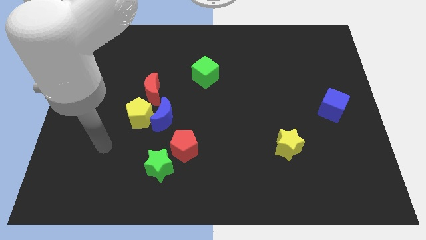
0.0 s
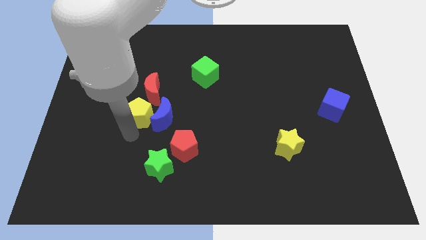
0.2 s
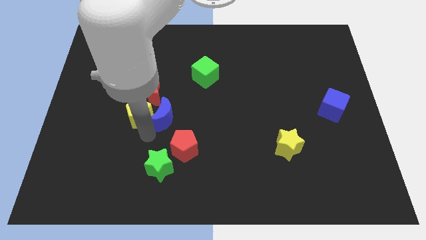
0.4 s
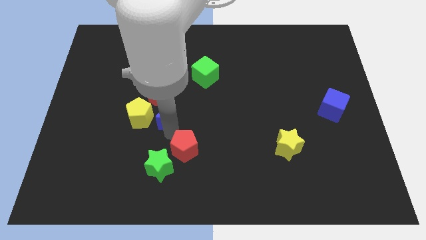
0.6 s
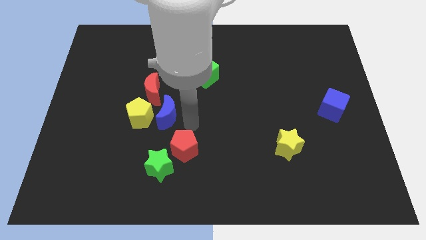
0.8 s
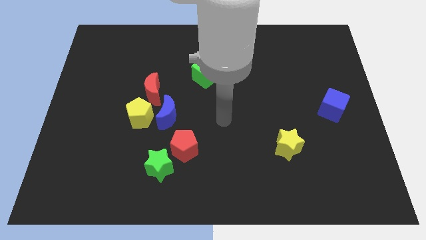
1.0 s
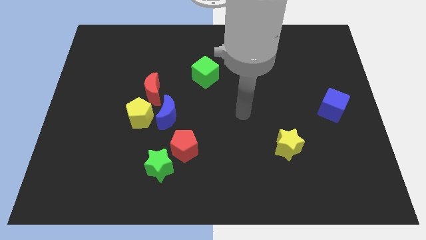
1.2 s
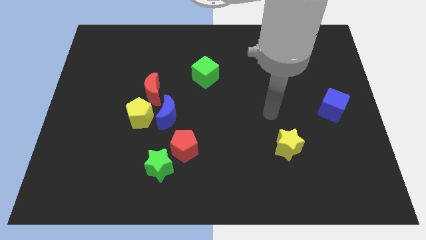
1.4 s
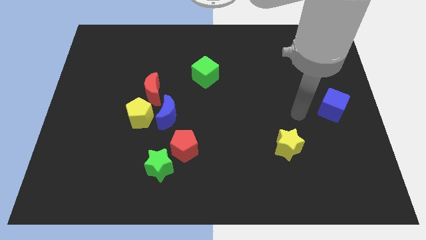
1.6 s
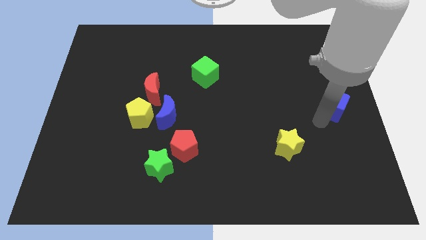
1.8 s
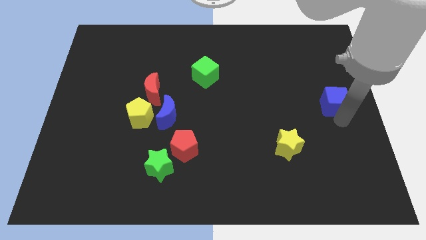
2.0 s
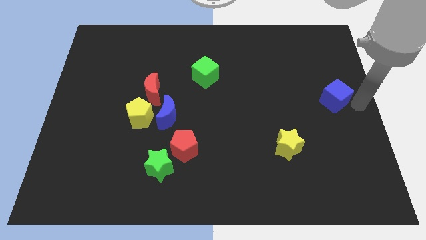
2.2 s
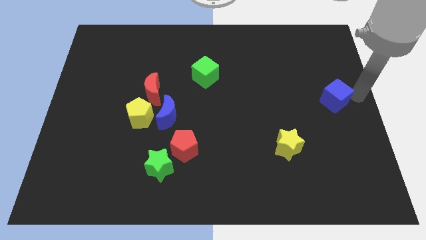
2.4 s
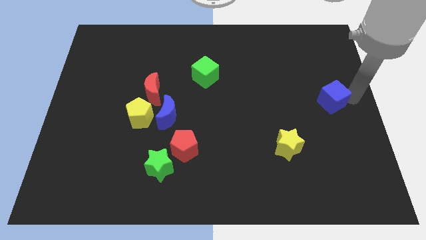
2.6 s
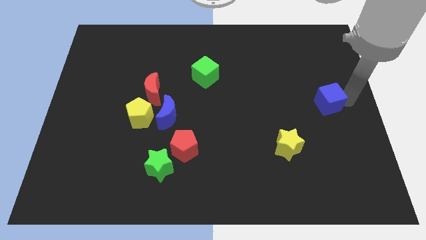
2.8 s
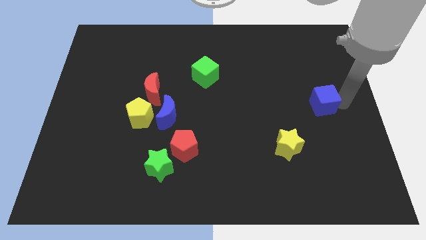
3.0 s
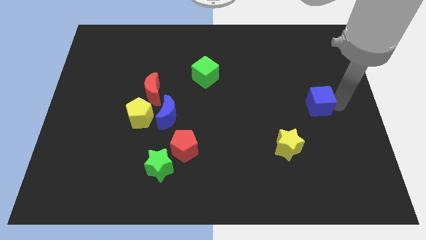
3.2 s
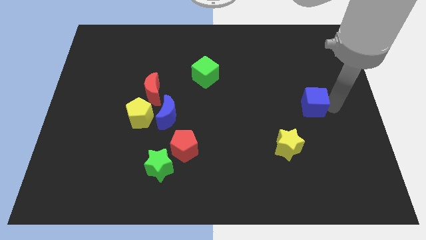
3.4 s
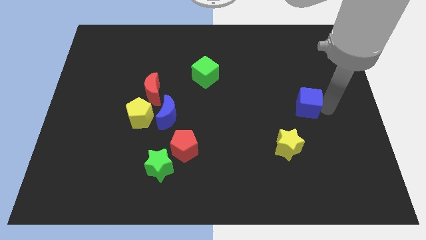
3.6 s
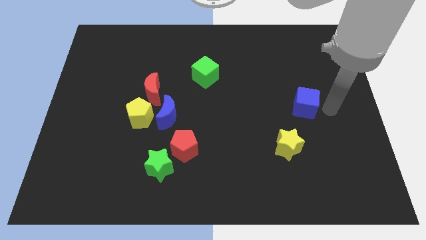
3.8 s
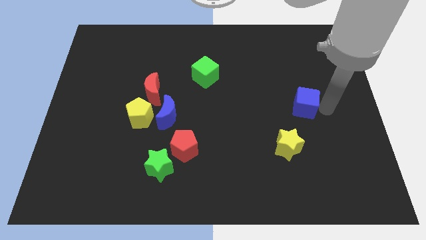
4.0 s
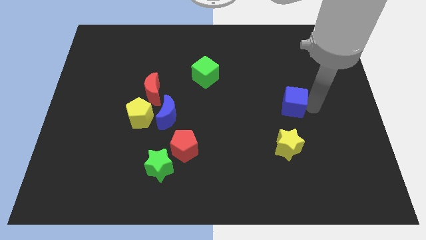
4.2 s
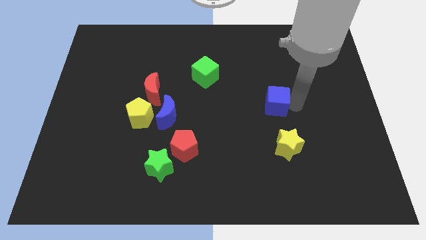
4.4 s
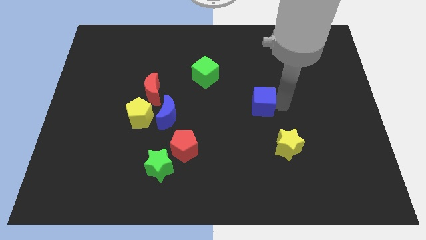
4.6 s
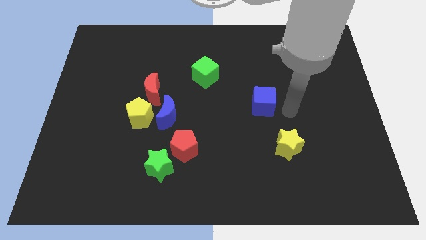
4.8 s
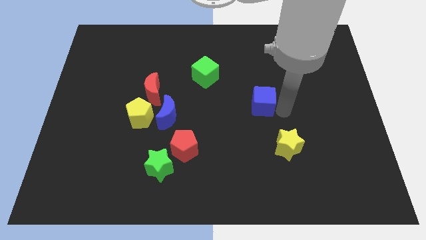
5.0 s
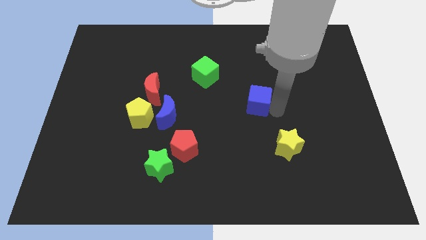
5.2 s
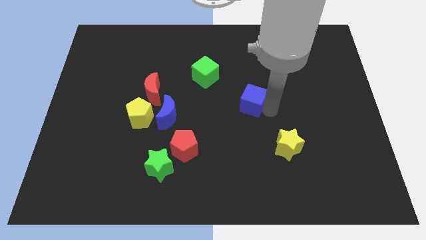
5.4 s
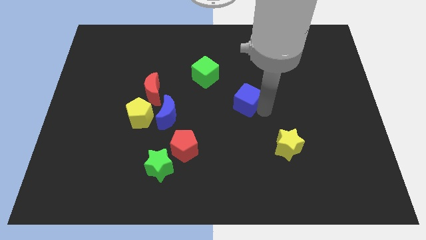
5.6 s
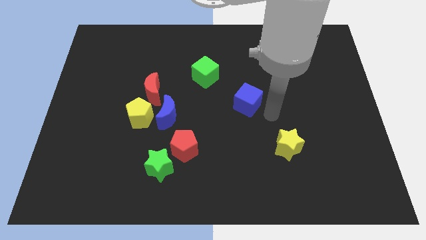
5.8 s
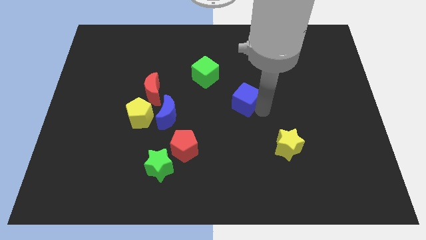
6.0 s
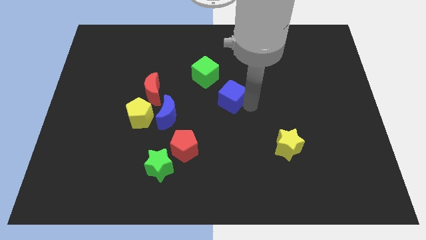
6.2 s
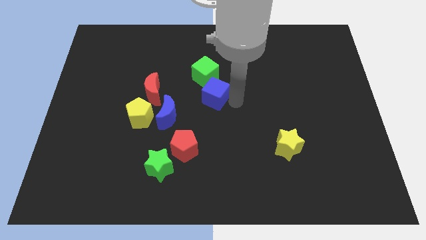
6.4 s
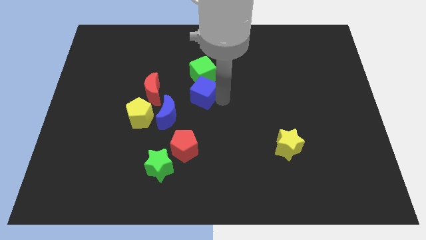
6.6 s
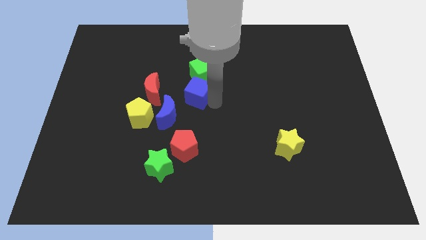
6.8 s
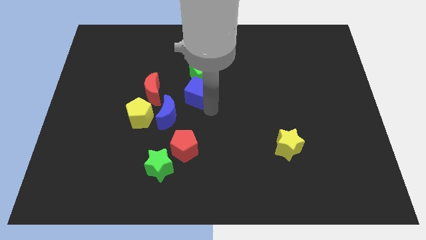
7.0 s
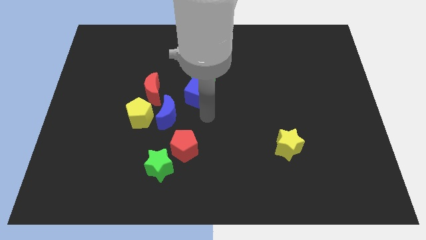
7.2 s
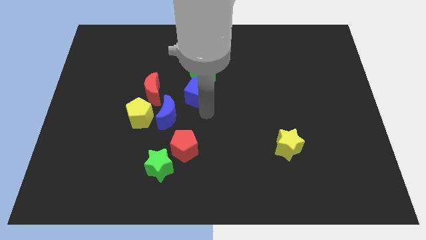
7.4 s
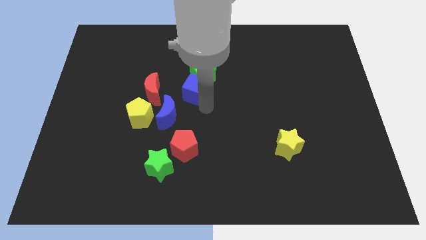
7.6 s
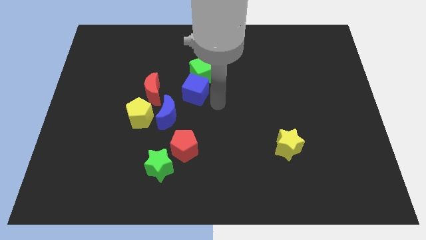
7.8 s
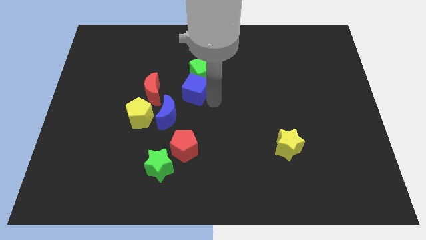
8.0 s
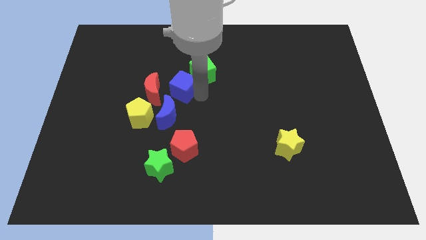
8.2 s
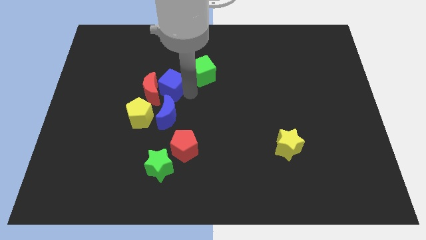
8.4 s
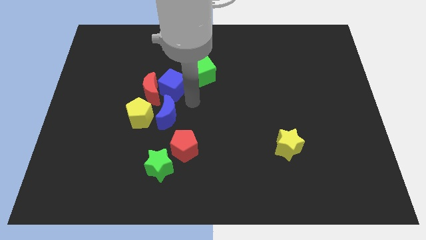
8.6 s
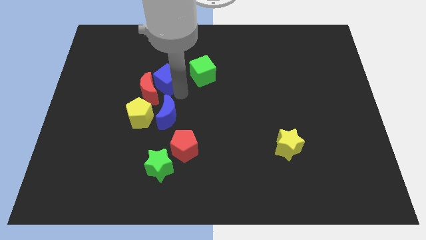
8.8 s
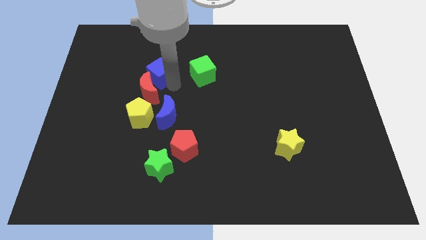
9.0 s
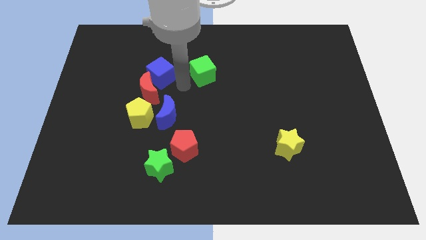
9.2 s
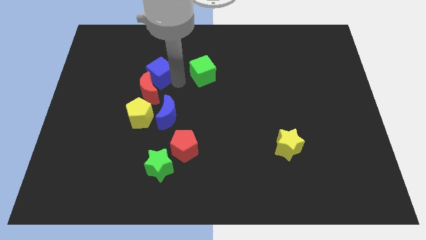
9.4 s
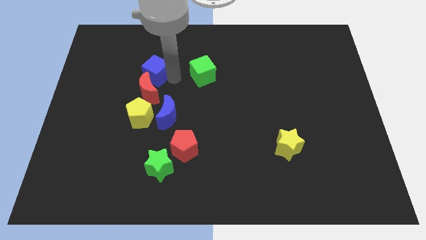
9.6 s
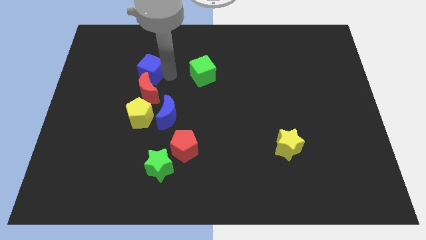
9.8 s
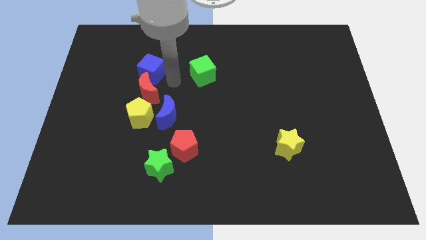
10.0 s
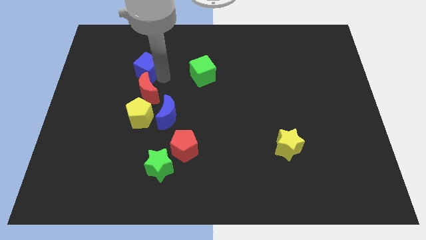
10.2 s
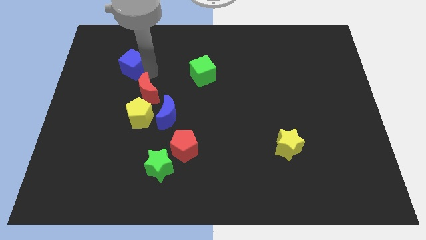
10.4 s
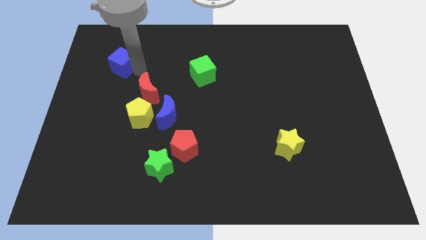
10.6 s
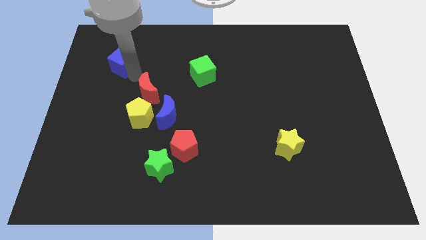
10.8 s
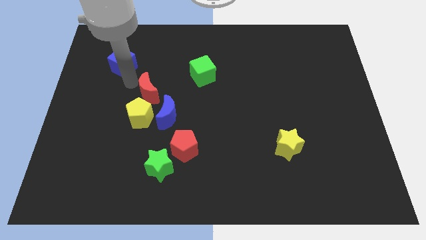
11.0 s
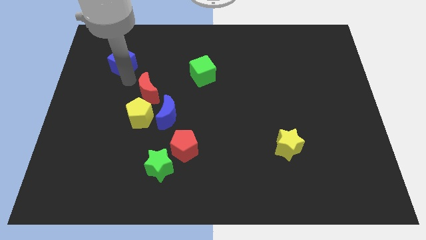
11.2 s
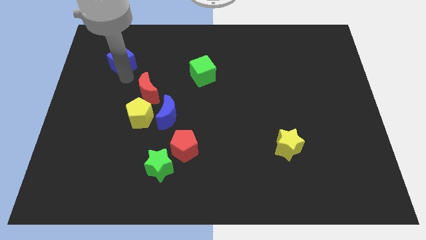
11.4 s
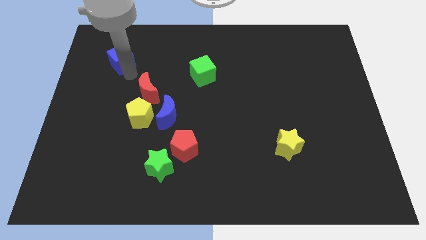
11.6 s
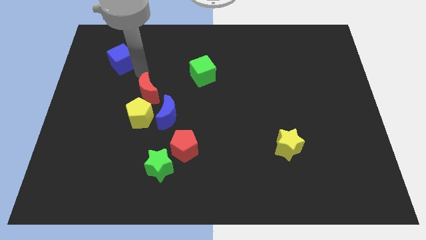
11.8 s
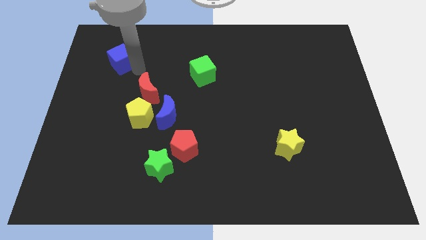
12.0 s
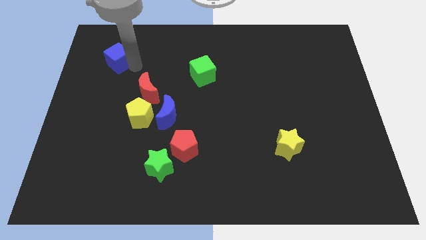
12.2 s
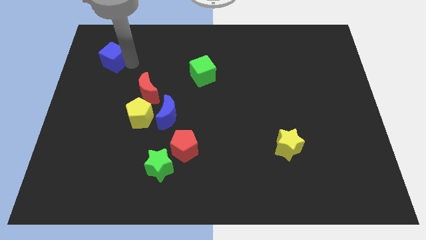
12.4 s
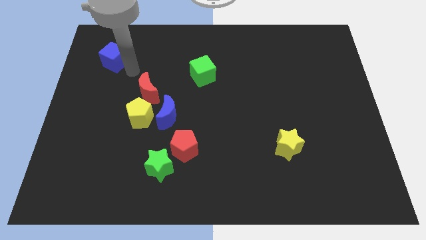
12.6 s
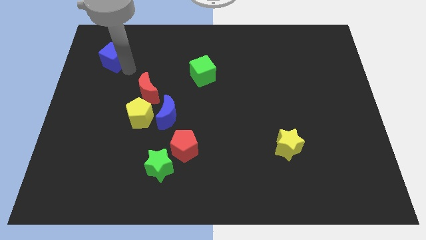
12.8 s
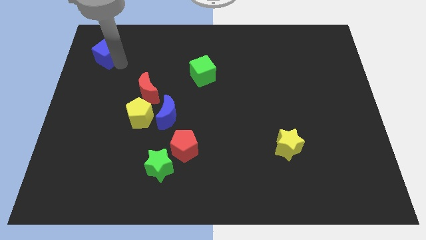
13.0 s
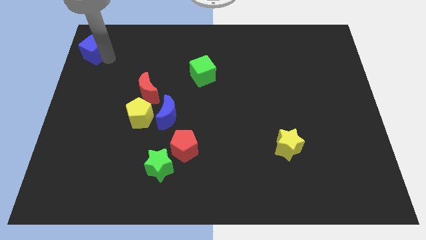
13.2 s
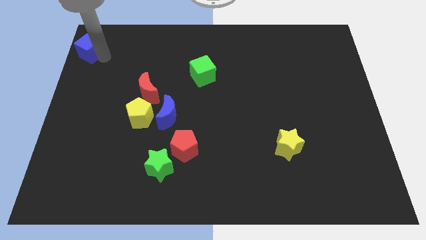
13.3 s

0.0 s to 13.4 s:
put the blue cube to the upper left corner
